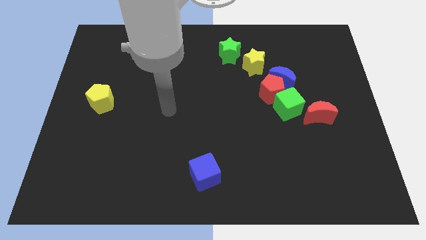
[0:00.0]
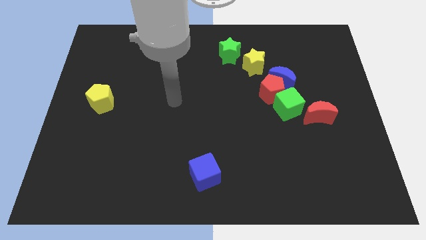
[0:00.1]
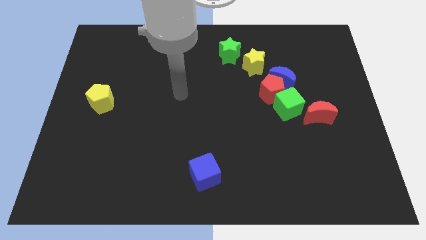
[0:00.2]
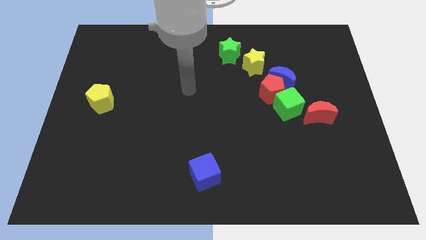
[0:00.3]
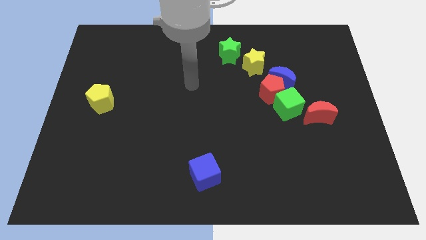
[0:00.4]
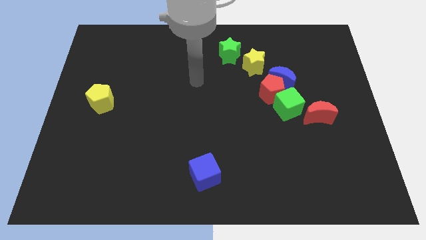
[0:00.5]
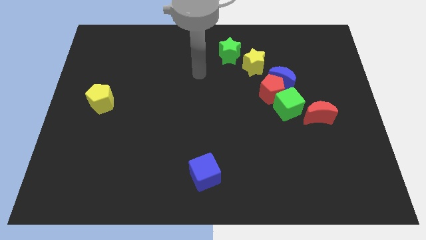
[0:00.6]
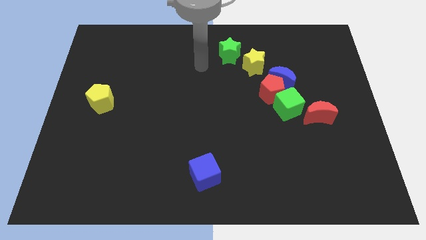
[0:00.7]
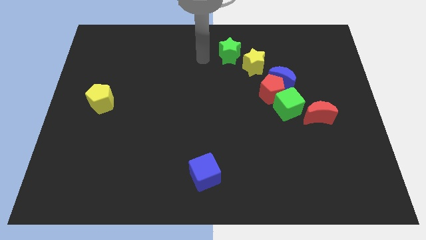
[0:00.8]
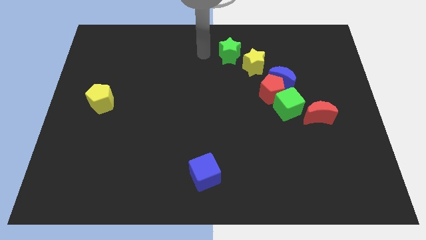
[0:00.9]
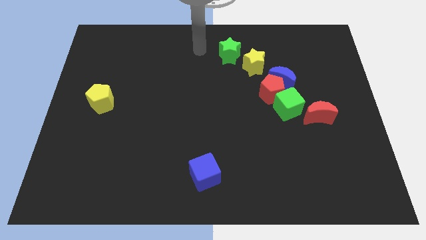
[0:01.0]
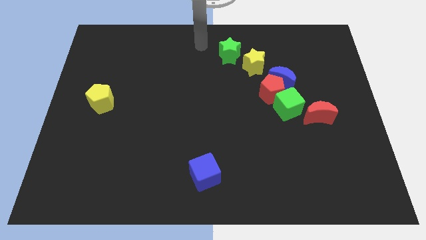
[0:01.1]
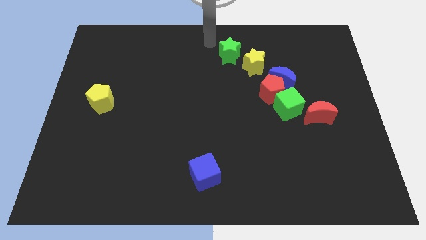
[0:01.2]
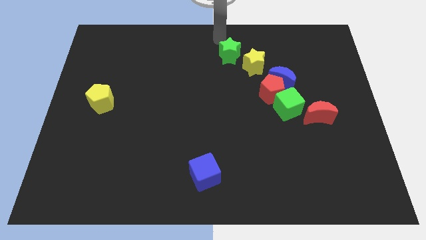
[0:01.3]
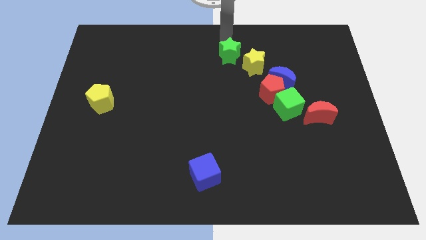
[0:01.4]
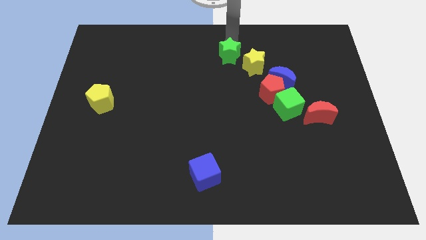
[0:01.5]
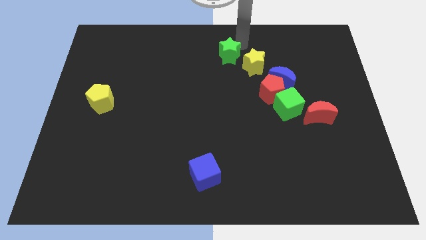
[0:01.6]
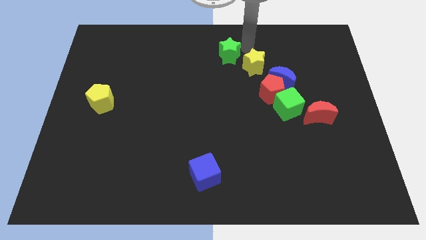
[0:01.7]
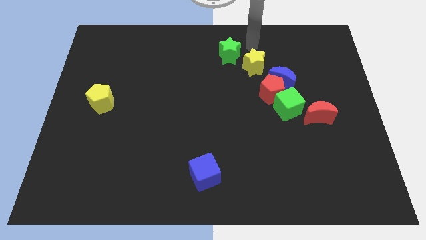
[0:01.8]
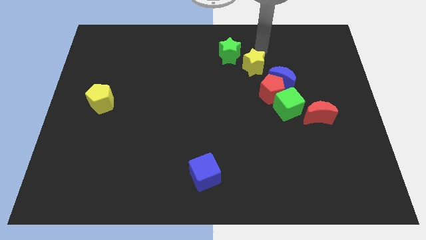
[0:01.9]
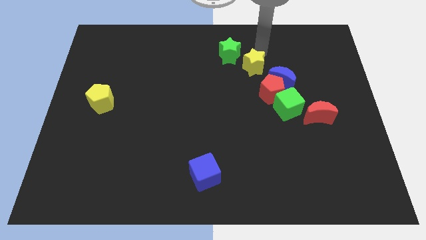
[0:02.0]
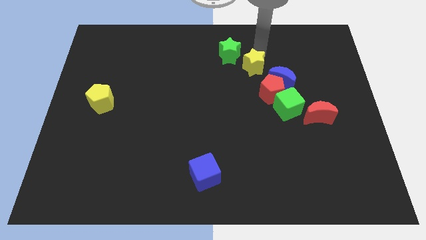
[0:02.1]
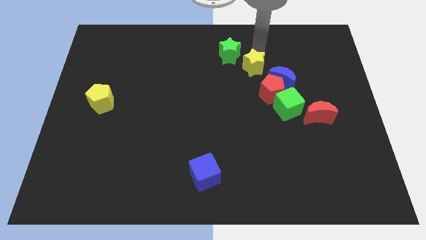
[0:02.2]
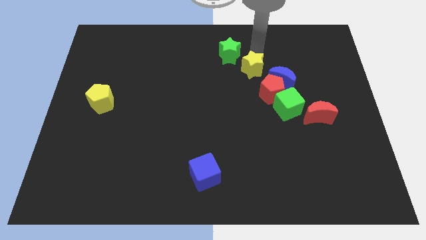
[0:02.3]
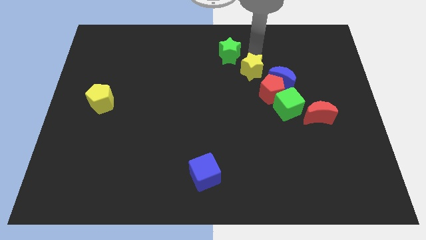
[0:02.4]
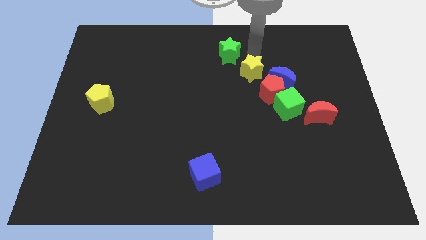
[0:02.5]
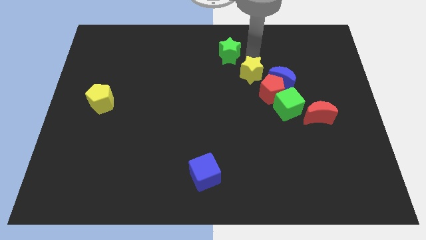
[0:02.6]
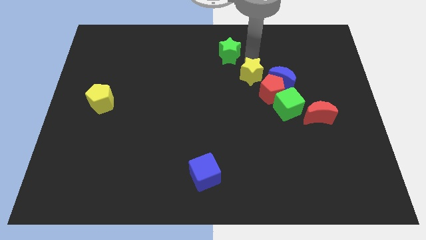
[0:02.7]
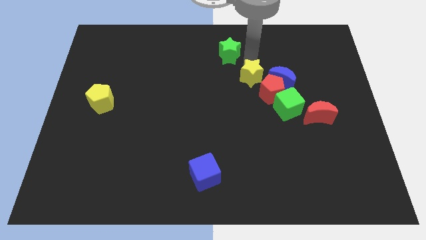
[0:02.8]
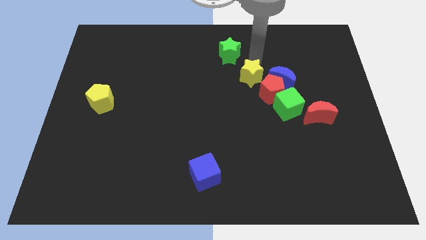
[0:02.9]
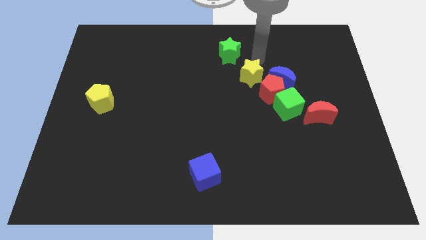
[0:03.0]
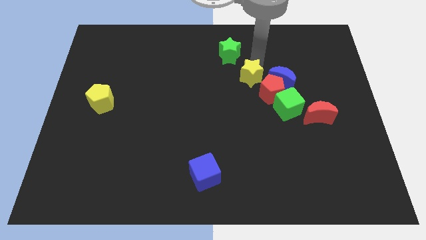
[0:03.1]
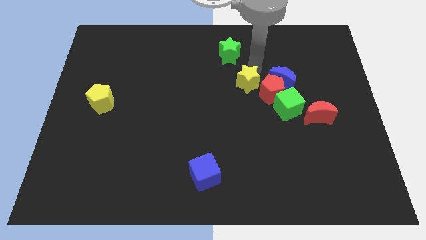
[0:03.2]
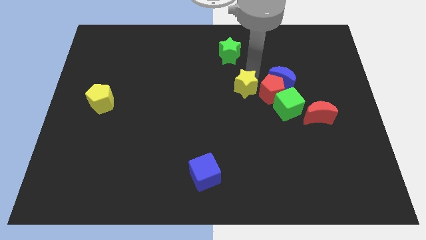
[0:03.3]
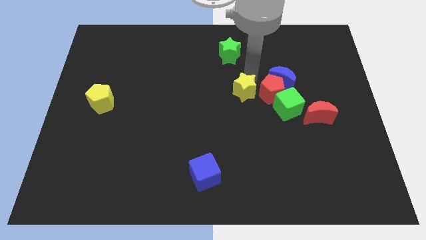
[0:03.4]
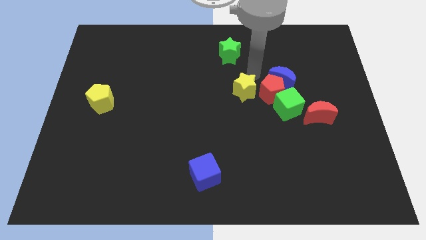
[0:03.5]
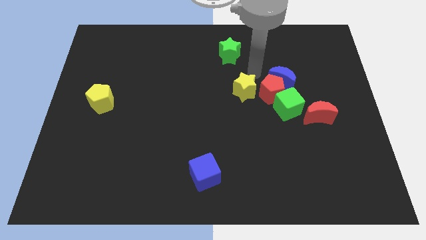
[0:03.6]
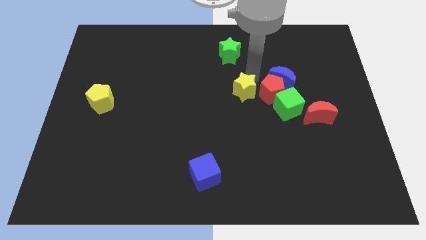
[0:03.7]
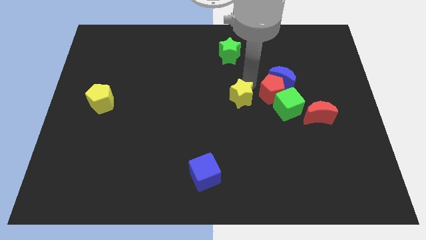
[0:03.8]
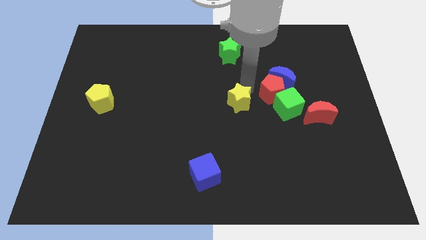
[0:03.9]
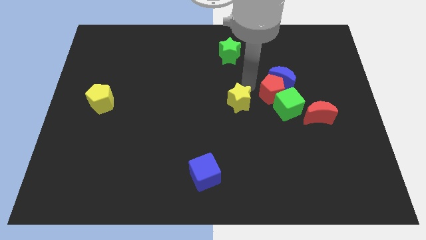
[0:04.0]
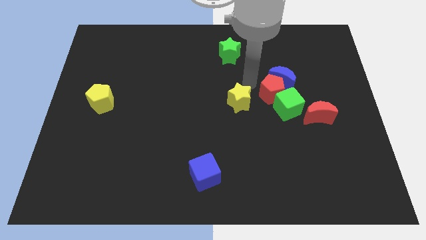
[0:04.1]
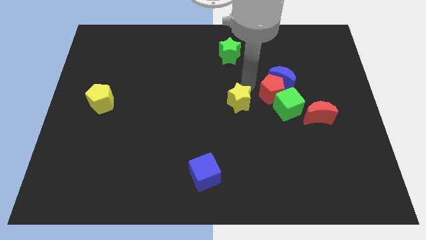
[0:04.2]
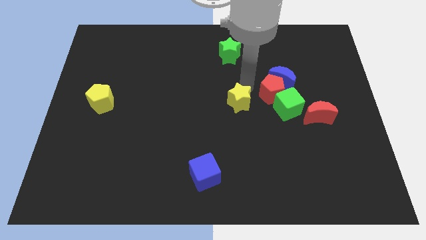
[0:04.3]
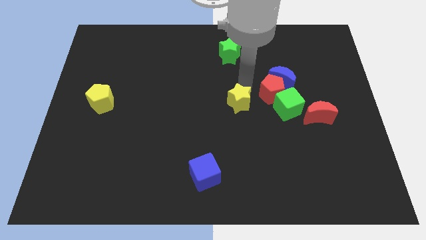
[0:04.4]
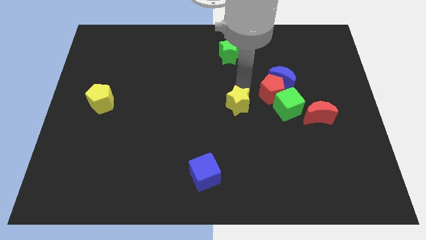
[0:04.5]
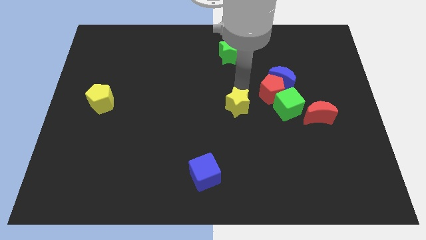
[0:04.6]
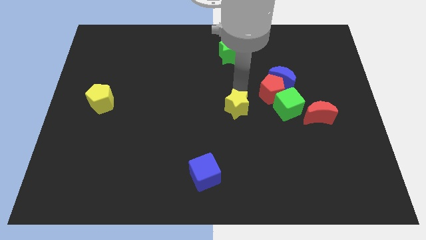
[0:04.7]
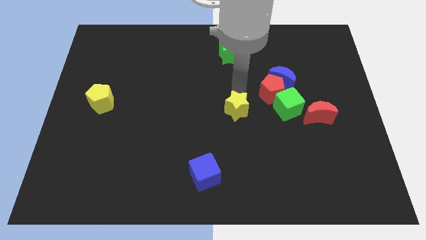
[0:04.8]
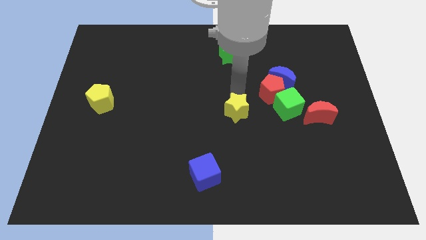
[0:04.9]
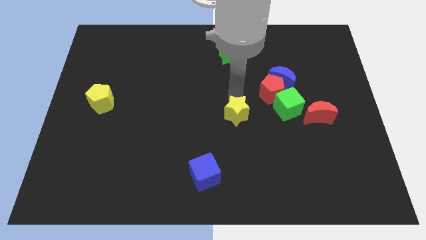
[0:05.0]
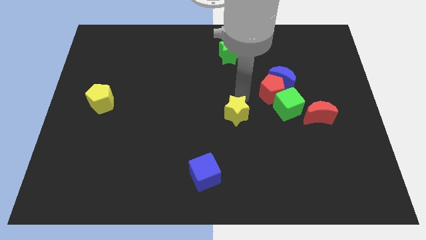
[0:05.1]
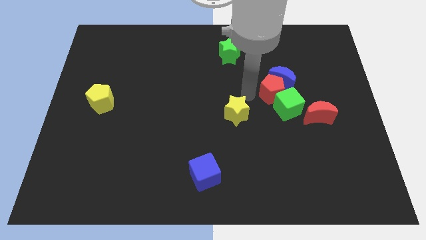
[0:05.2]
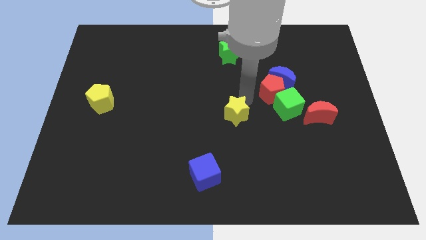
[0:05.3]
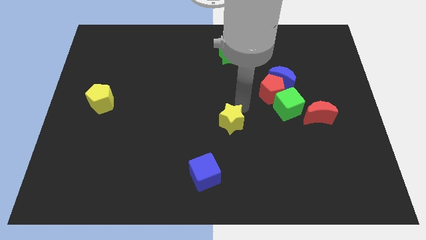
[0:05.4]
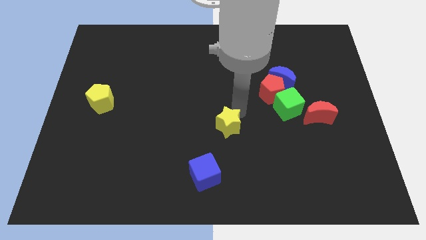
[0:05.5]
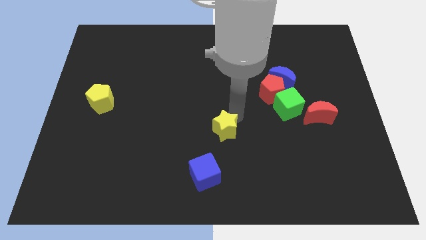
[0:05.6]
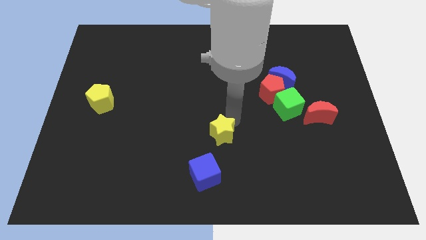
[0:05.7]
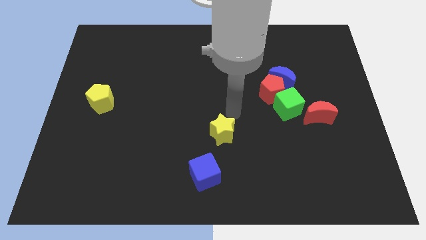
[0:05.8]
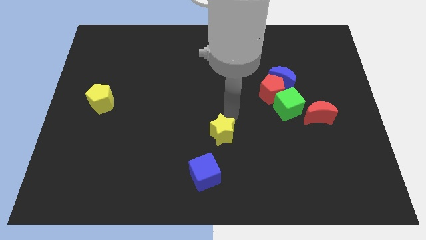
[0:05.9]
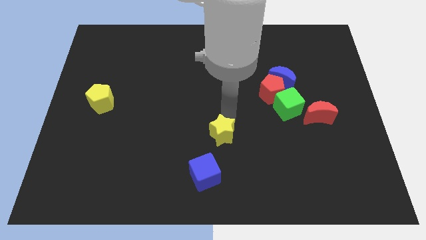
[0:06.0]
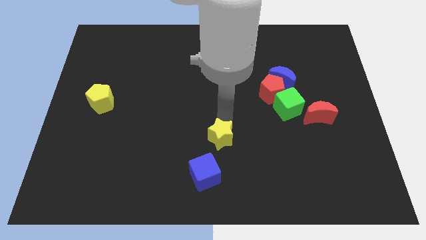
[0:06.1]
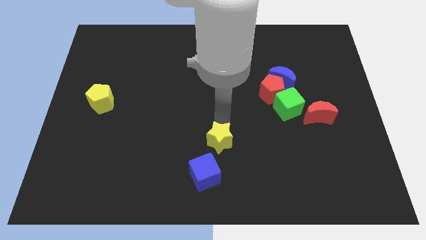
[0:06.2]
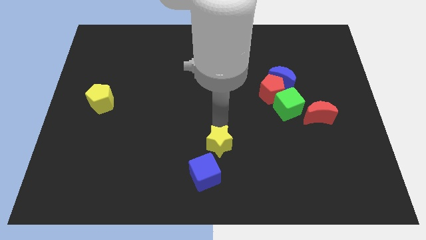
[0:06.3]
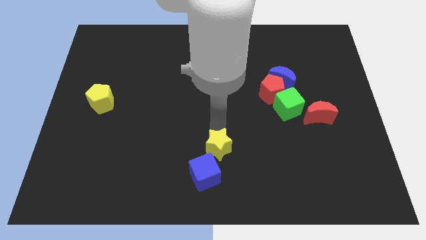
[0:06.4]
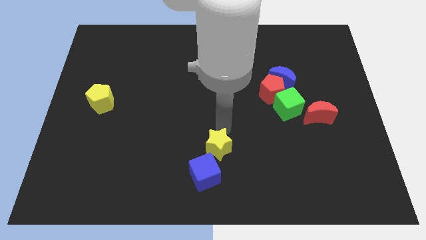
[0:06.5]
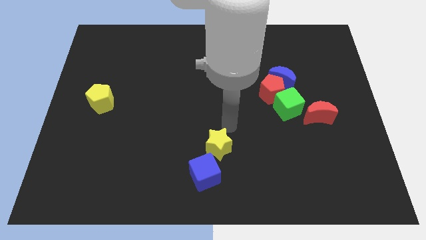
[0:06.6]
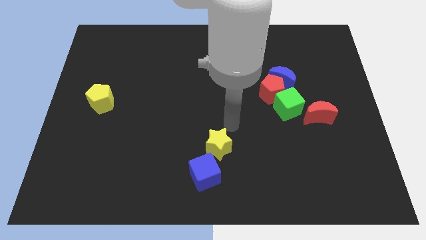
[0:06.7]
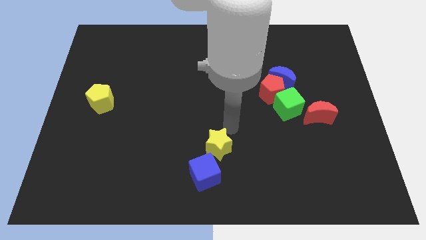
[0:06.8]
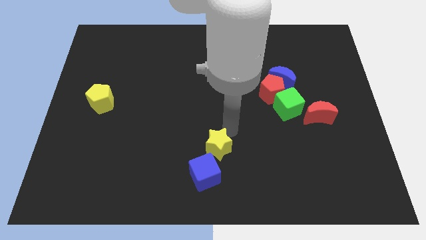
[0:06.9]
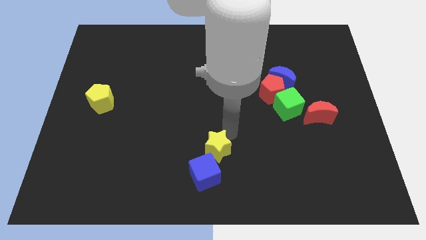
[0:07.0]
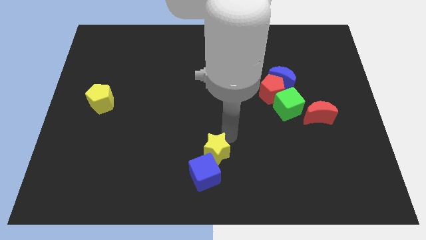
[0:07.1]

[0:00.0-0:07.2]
put the yellow star next to the blue cube
